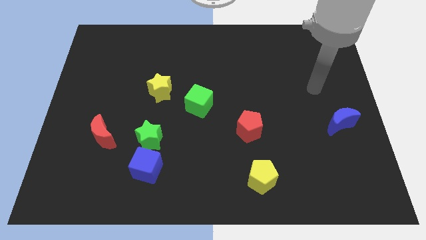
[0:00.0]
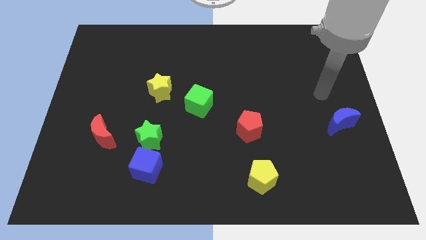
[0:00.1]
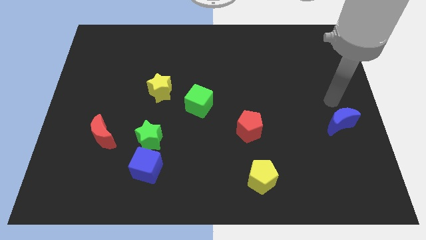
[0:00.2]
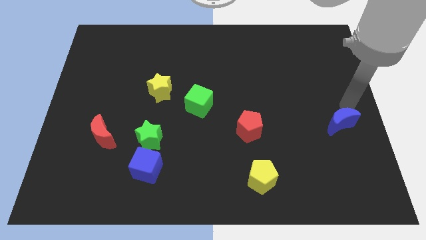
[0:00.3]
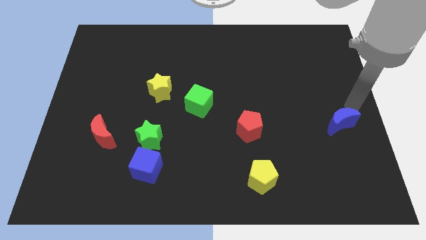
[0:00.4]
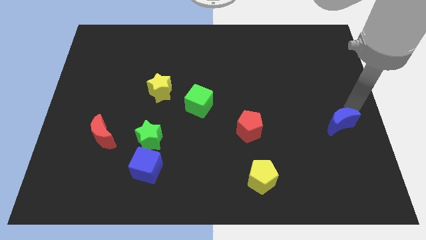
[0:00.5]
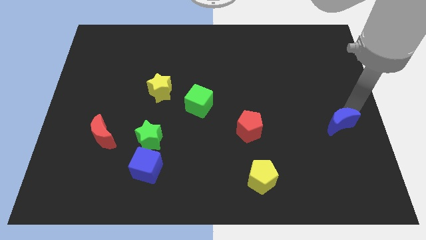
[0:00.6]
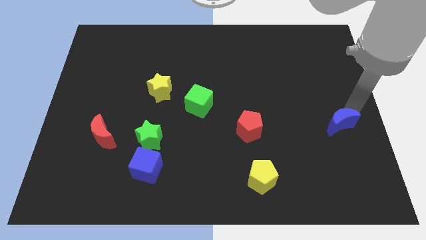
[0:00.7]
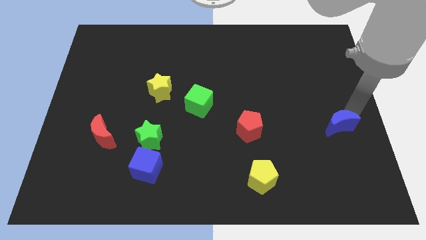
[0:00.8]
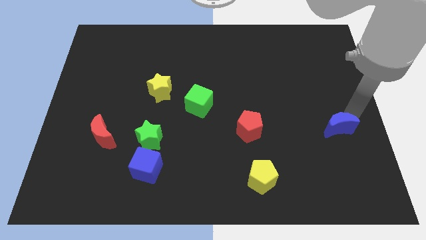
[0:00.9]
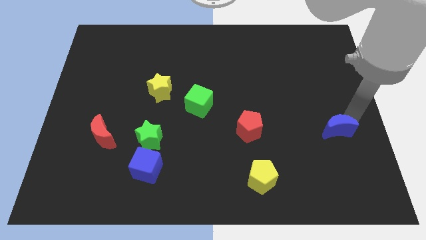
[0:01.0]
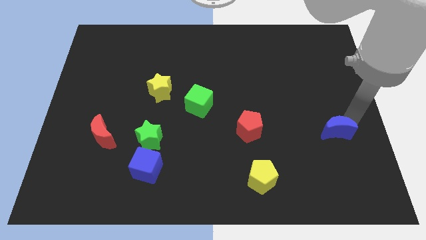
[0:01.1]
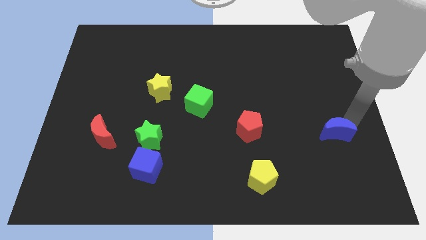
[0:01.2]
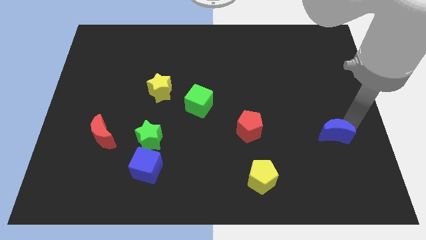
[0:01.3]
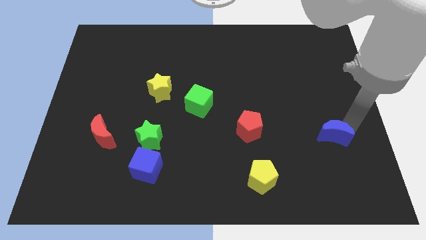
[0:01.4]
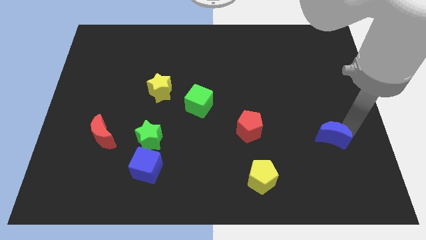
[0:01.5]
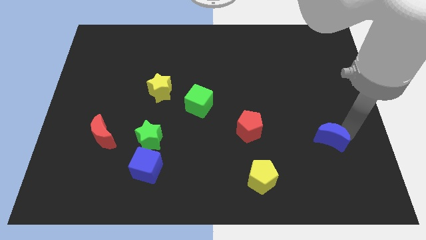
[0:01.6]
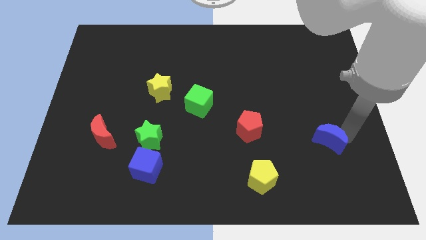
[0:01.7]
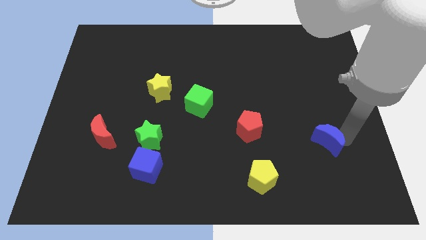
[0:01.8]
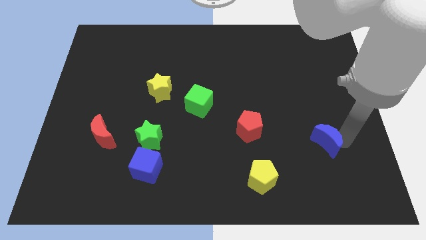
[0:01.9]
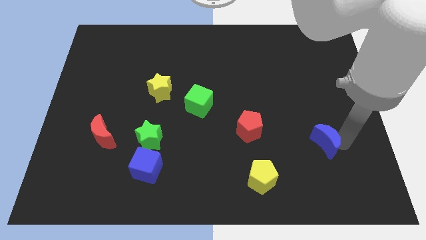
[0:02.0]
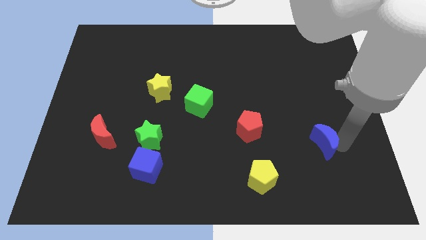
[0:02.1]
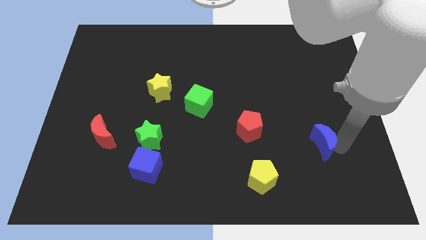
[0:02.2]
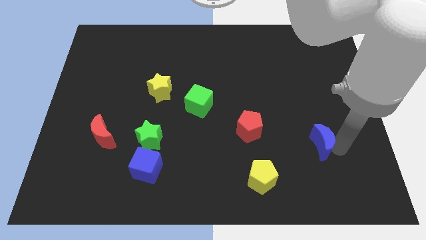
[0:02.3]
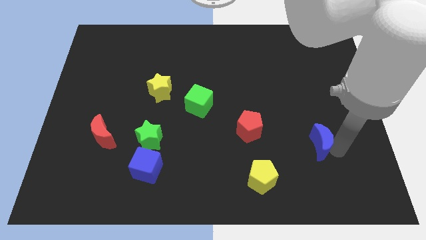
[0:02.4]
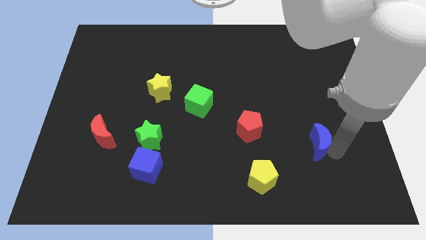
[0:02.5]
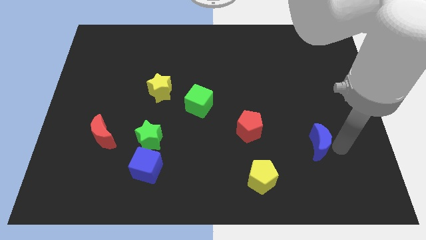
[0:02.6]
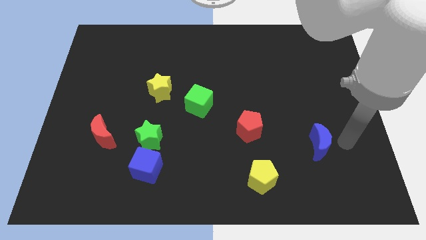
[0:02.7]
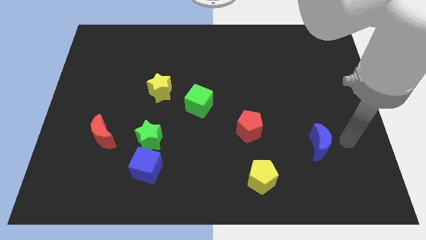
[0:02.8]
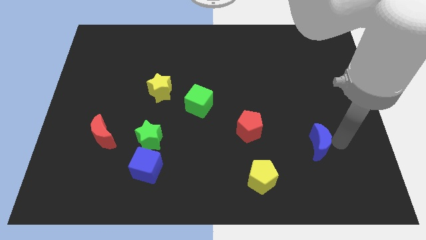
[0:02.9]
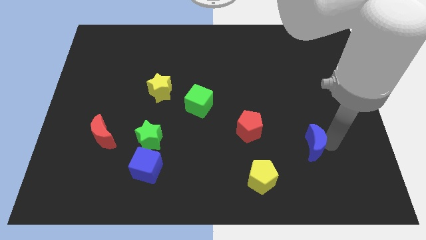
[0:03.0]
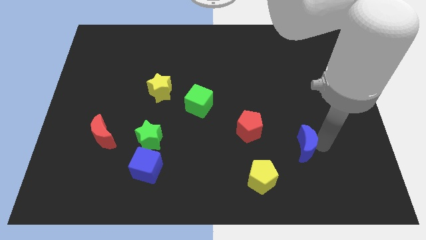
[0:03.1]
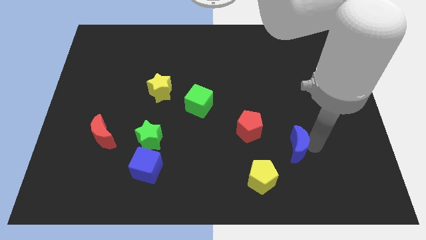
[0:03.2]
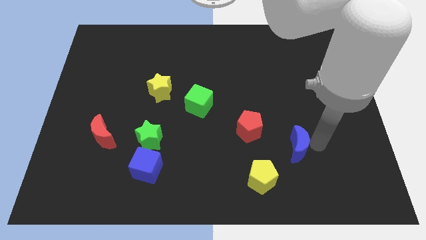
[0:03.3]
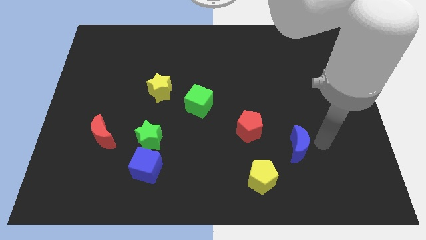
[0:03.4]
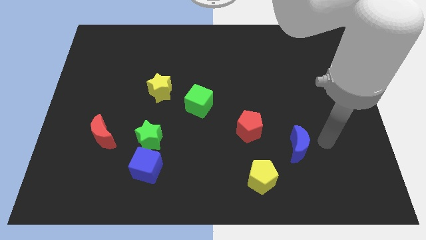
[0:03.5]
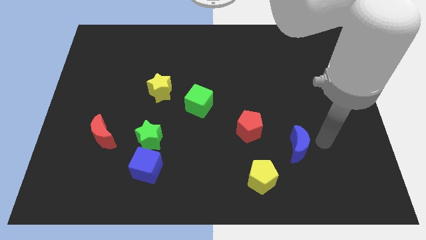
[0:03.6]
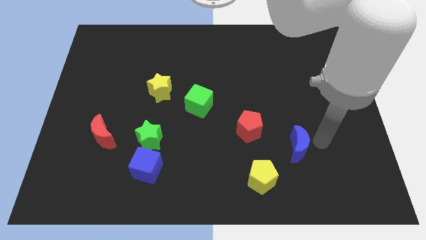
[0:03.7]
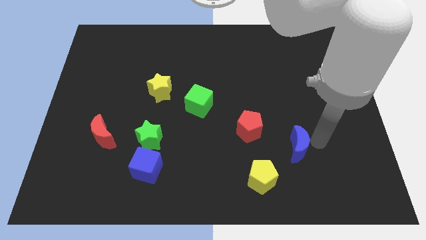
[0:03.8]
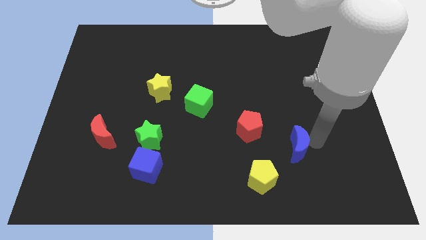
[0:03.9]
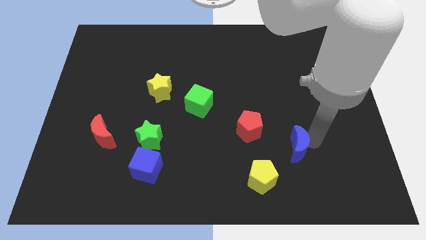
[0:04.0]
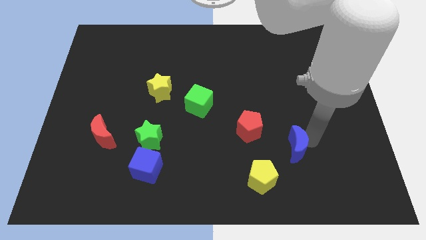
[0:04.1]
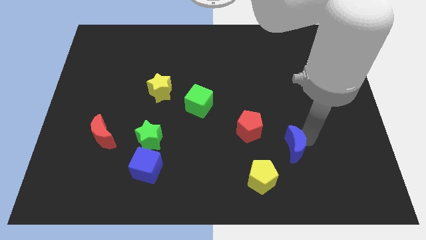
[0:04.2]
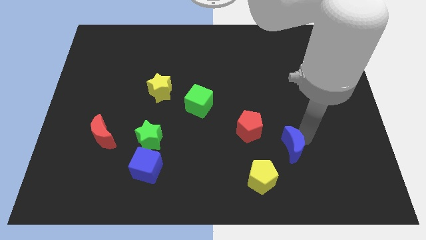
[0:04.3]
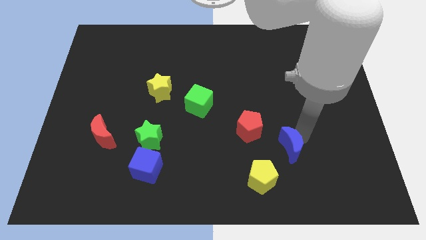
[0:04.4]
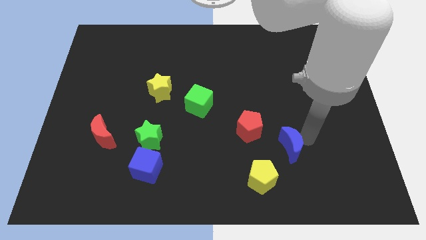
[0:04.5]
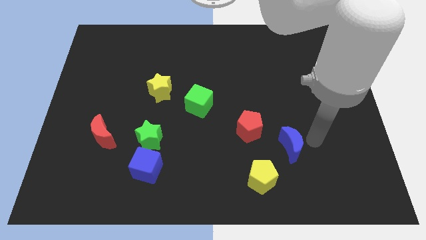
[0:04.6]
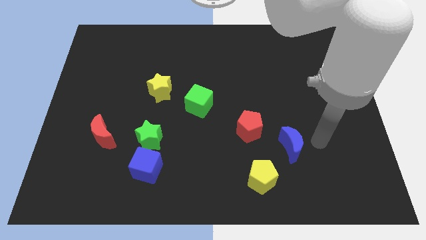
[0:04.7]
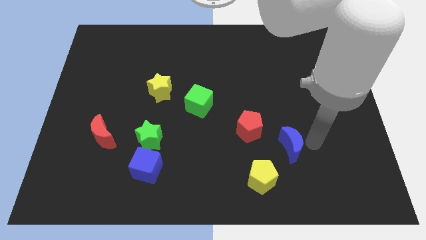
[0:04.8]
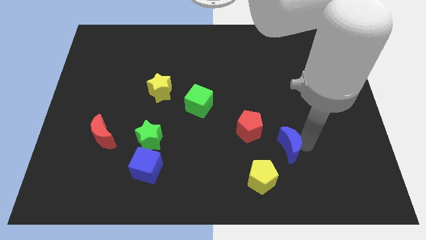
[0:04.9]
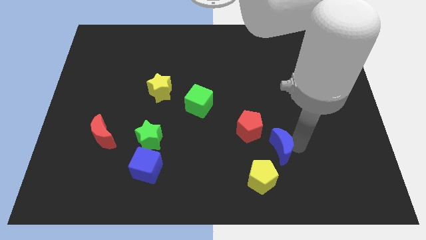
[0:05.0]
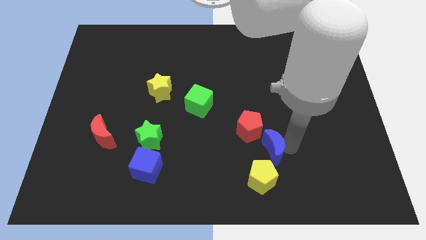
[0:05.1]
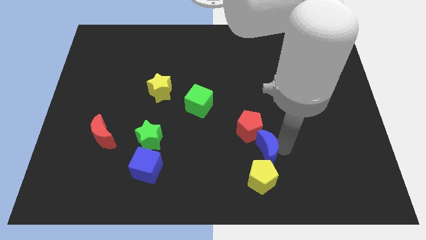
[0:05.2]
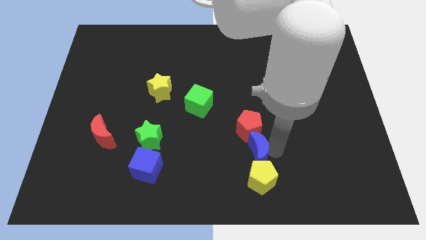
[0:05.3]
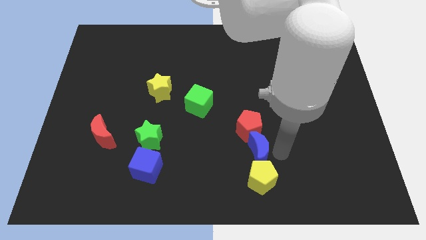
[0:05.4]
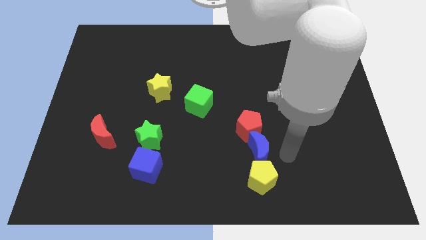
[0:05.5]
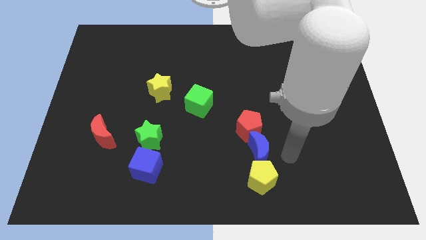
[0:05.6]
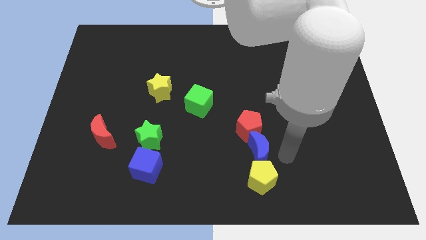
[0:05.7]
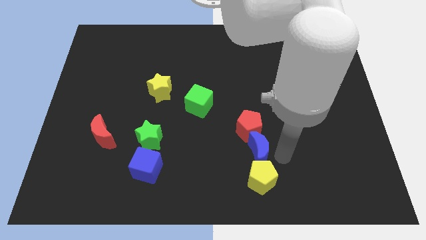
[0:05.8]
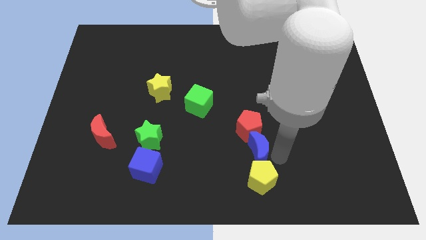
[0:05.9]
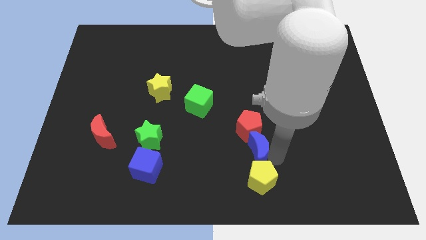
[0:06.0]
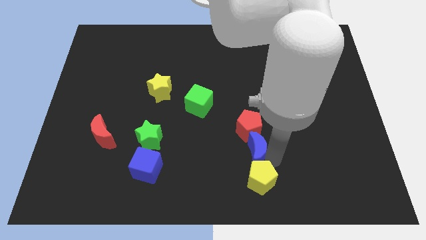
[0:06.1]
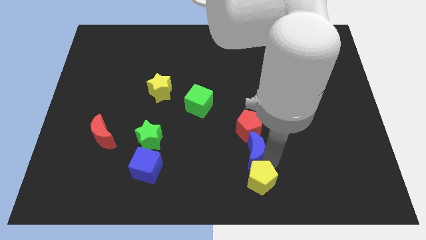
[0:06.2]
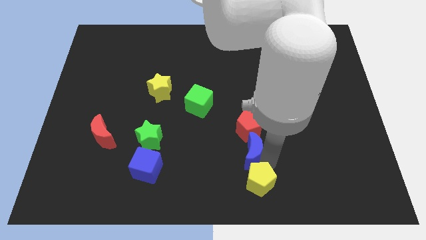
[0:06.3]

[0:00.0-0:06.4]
slide the blue moon diagonally down and to the left of the red pentagon

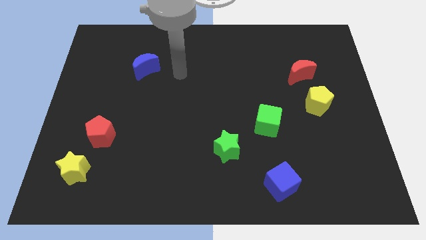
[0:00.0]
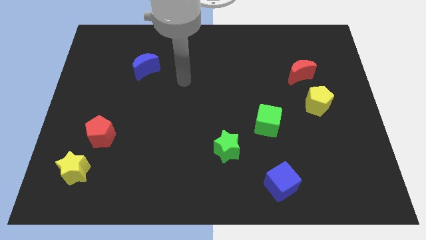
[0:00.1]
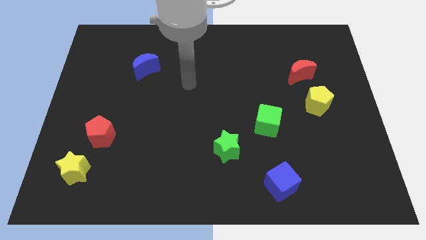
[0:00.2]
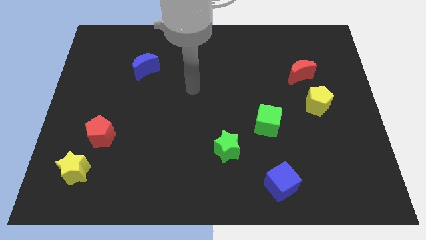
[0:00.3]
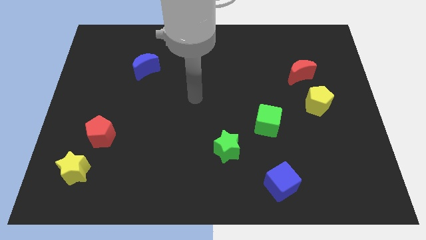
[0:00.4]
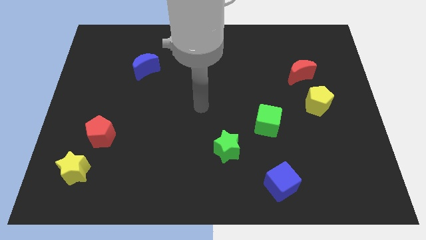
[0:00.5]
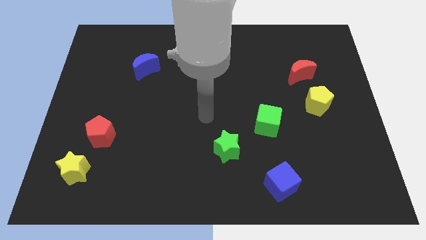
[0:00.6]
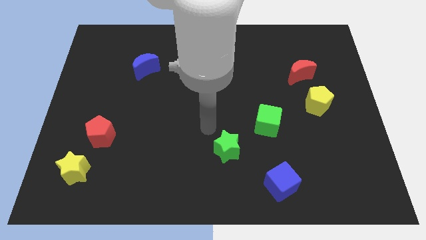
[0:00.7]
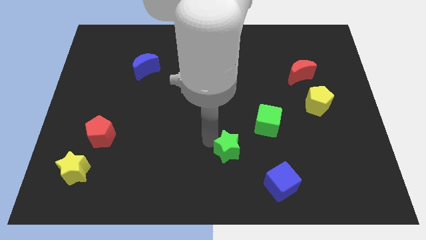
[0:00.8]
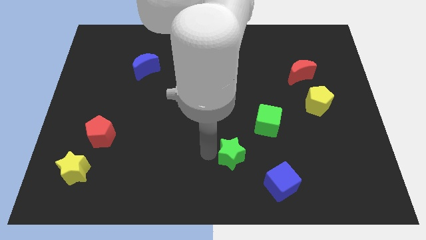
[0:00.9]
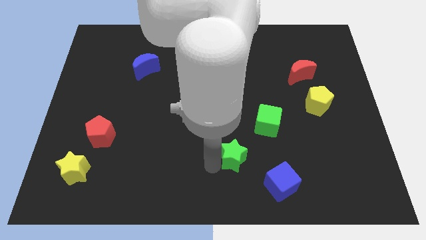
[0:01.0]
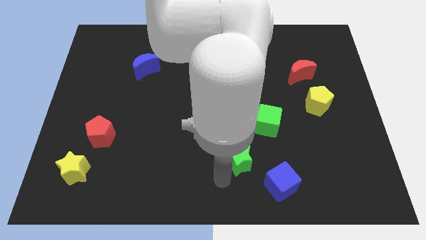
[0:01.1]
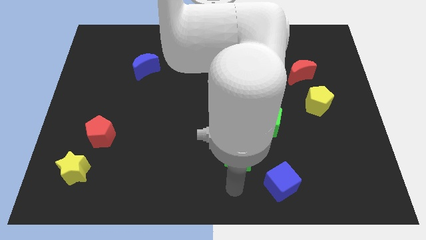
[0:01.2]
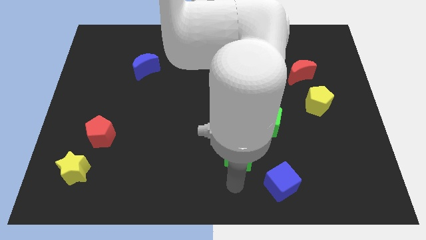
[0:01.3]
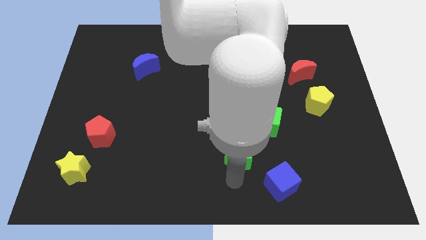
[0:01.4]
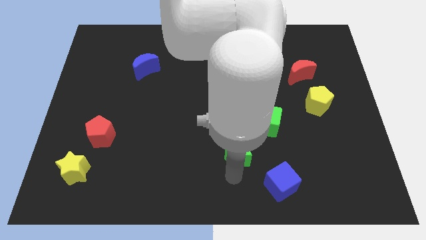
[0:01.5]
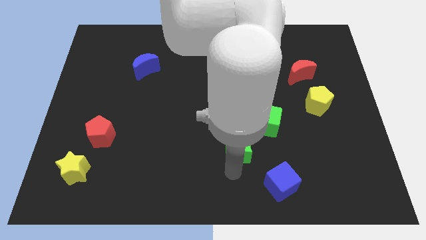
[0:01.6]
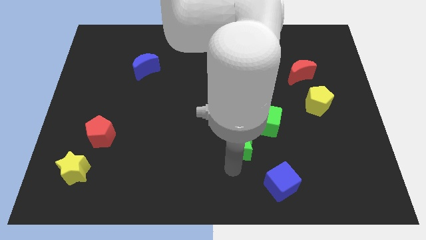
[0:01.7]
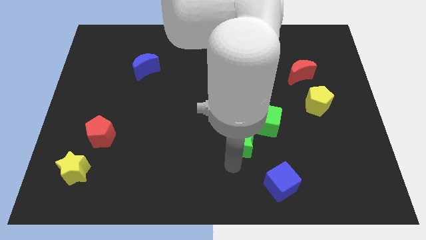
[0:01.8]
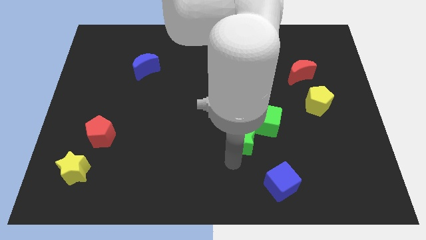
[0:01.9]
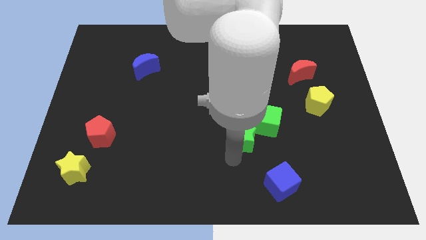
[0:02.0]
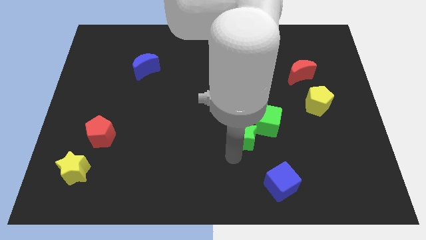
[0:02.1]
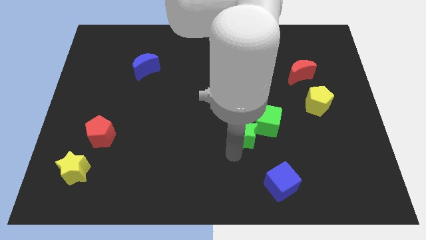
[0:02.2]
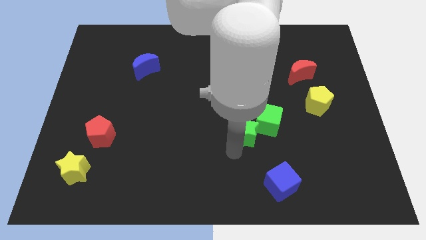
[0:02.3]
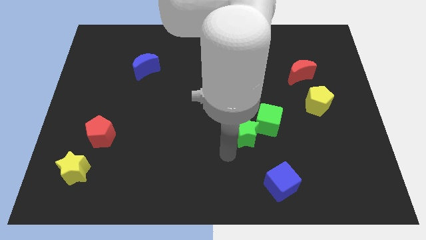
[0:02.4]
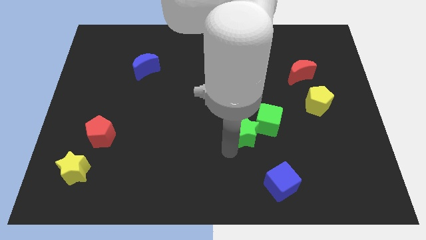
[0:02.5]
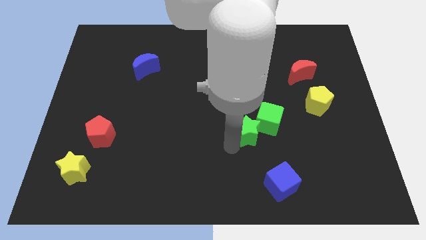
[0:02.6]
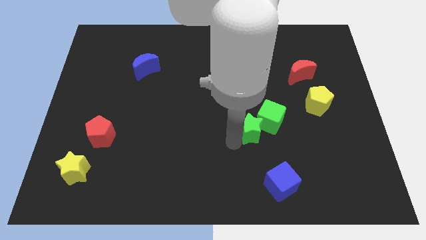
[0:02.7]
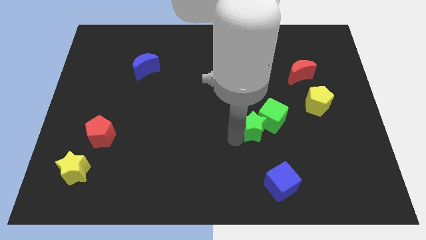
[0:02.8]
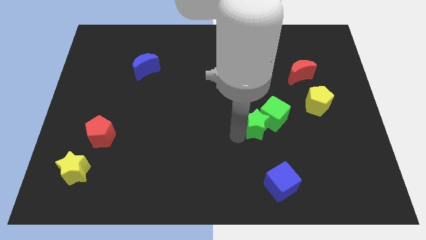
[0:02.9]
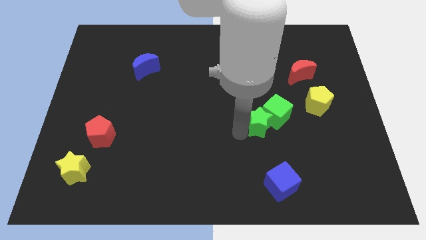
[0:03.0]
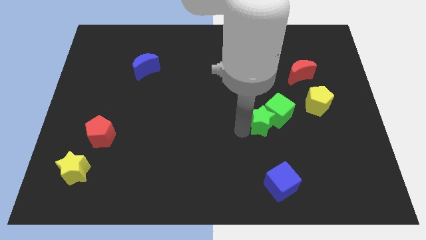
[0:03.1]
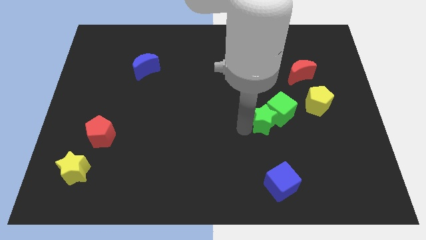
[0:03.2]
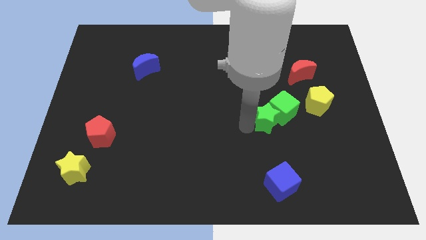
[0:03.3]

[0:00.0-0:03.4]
slide the green star to the left of the yellow pentagon
